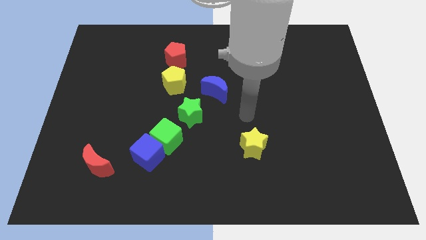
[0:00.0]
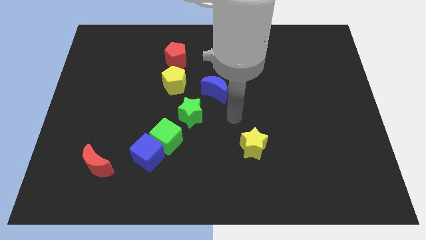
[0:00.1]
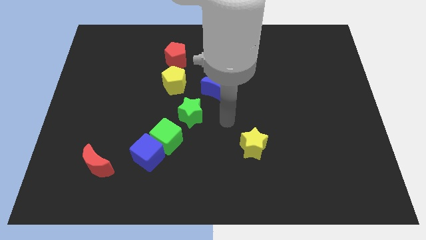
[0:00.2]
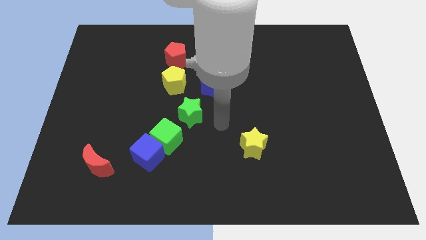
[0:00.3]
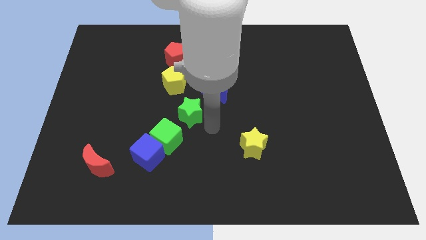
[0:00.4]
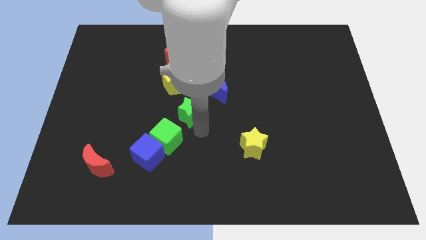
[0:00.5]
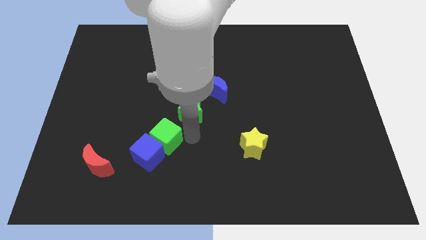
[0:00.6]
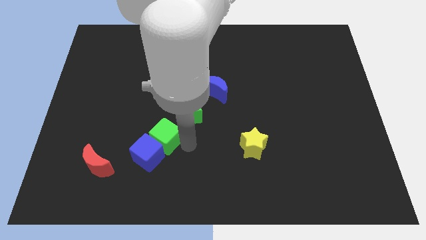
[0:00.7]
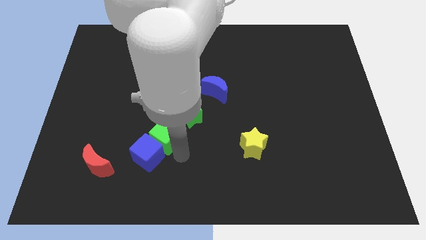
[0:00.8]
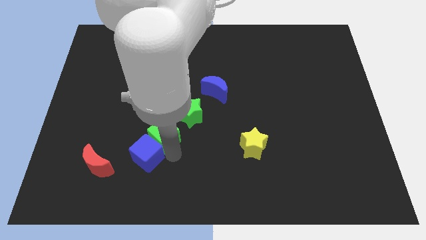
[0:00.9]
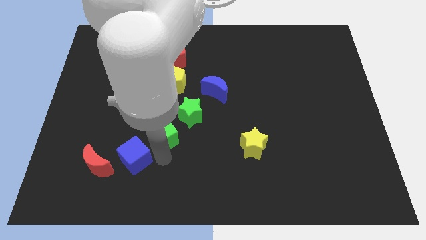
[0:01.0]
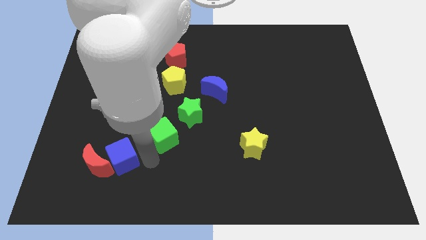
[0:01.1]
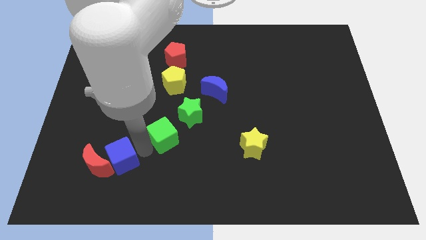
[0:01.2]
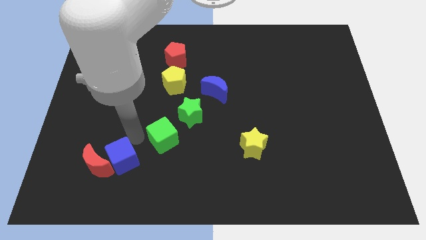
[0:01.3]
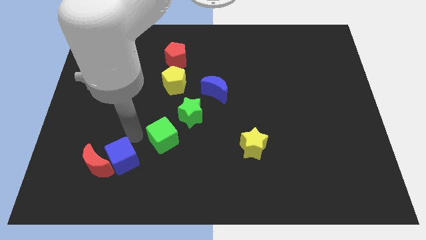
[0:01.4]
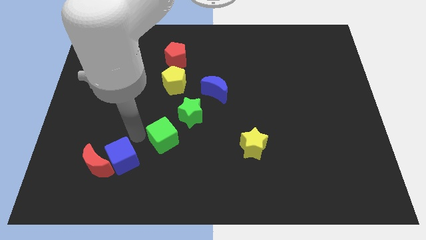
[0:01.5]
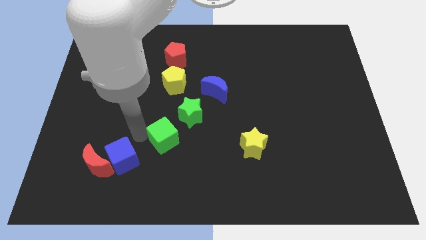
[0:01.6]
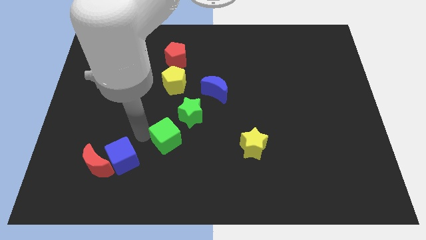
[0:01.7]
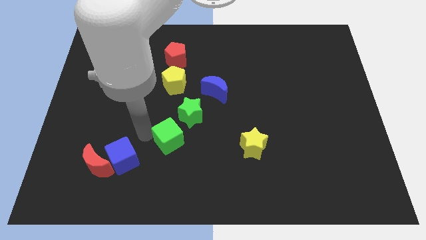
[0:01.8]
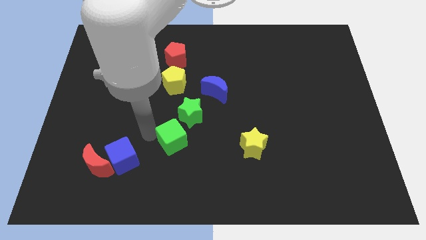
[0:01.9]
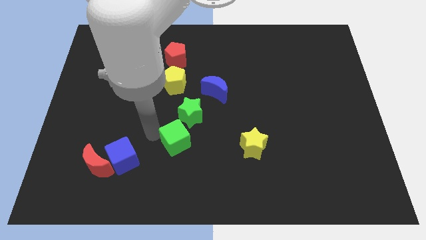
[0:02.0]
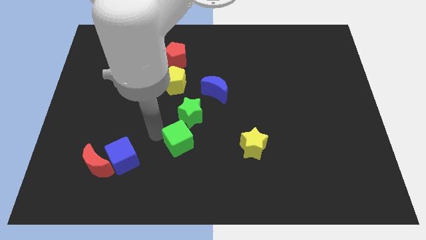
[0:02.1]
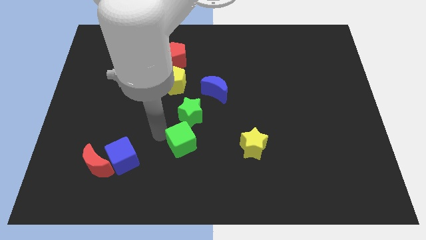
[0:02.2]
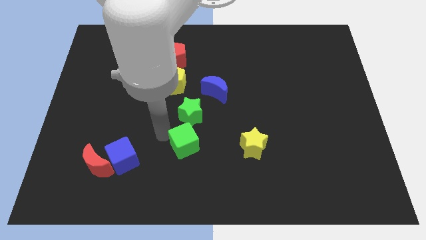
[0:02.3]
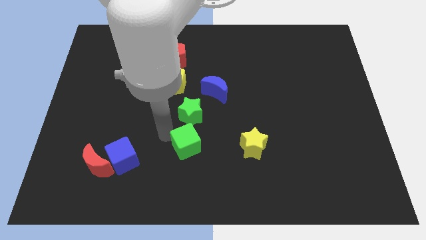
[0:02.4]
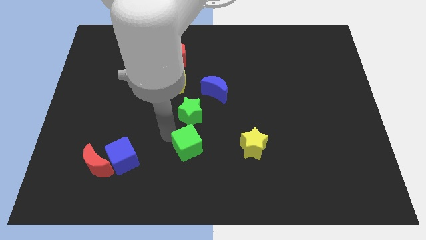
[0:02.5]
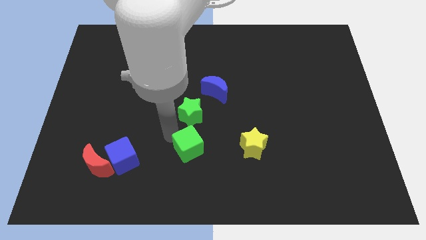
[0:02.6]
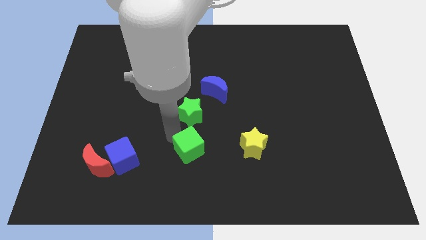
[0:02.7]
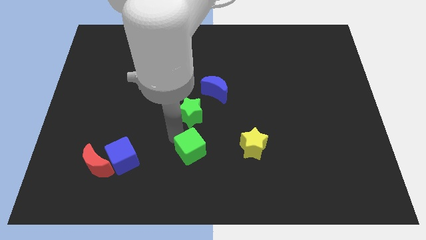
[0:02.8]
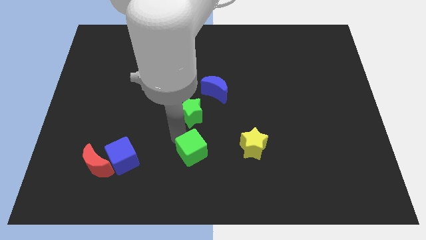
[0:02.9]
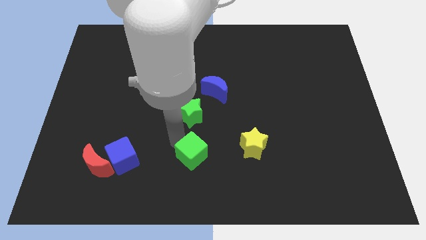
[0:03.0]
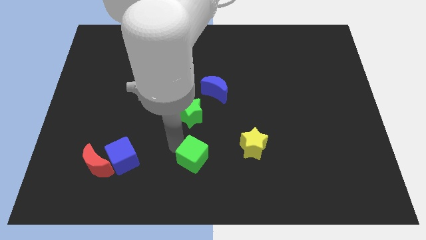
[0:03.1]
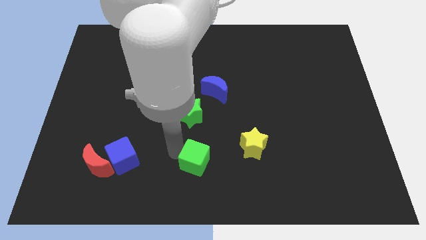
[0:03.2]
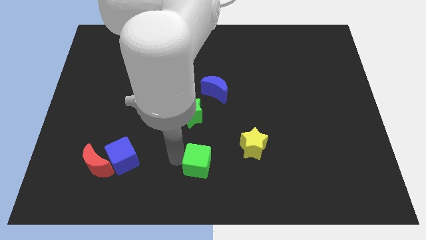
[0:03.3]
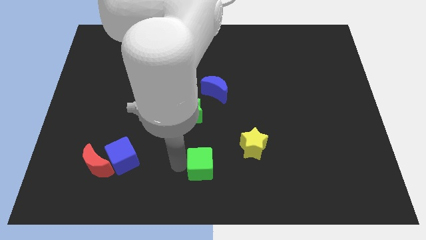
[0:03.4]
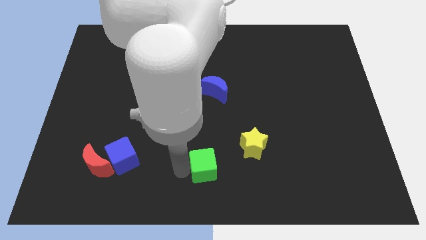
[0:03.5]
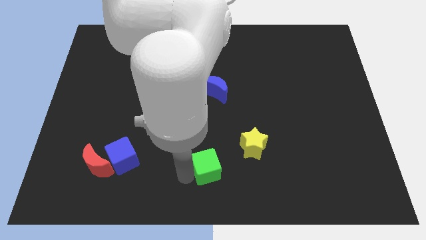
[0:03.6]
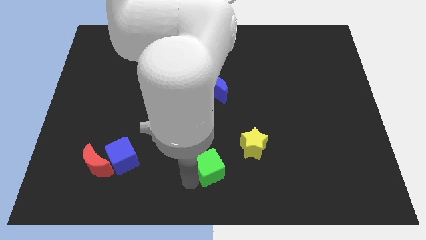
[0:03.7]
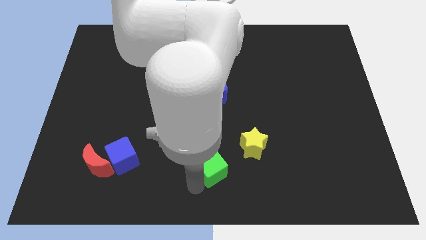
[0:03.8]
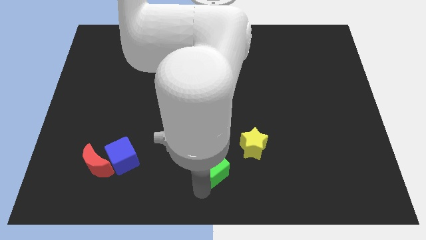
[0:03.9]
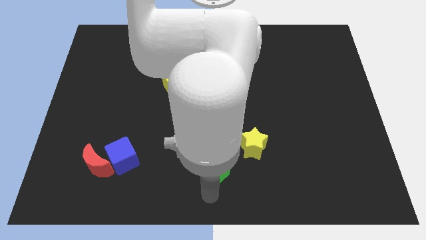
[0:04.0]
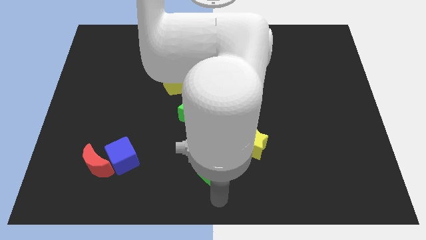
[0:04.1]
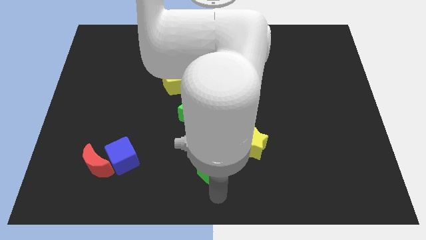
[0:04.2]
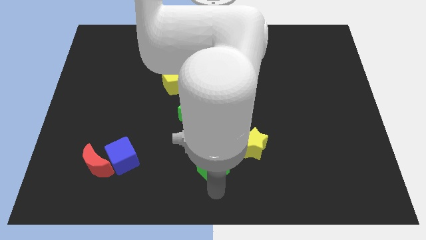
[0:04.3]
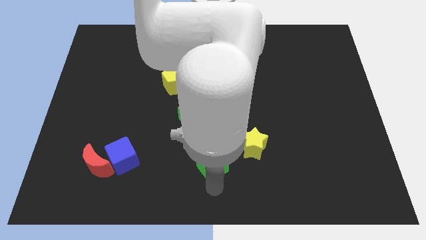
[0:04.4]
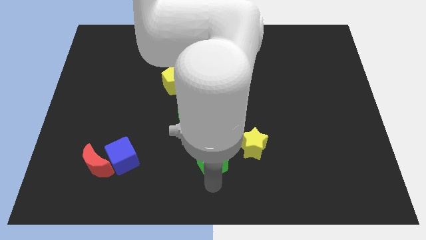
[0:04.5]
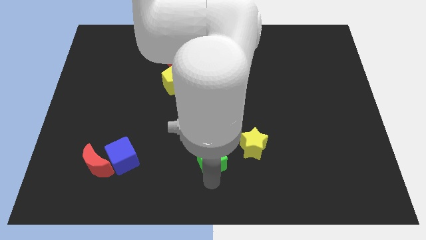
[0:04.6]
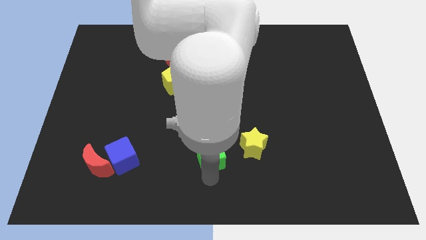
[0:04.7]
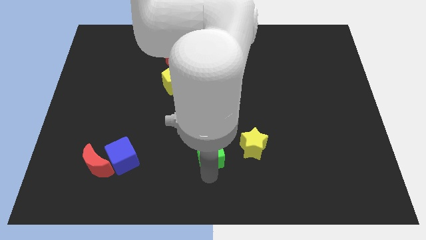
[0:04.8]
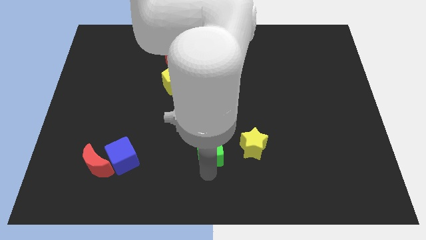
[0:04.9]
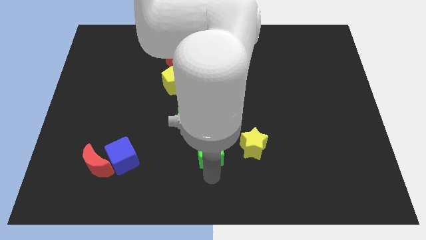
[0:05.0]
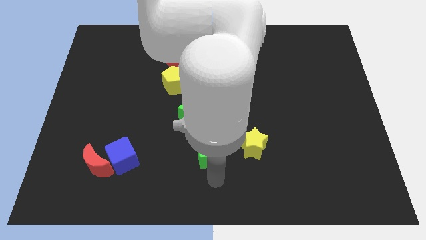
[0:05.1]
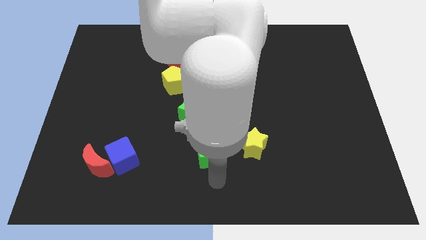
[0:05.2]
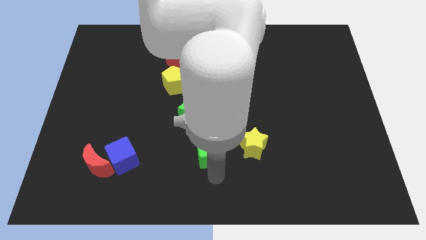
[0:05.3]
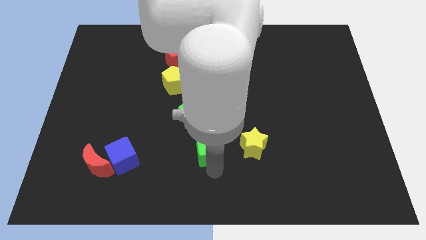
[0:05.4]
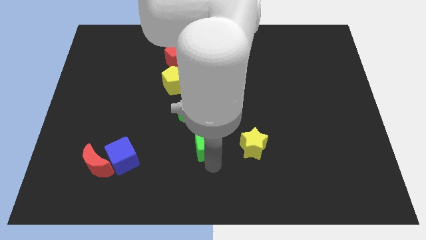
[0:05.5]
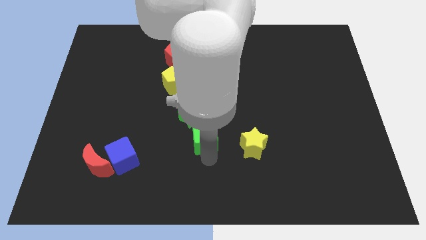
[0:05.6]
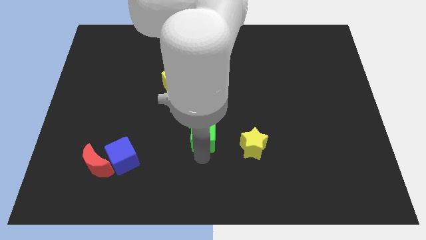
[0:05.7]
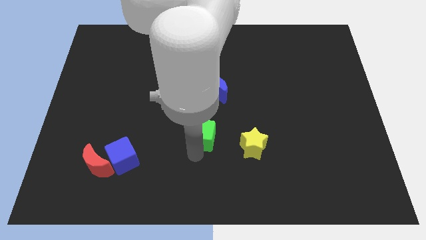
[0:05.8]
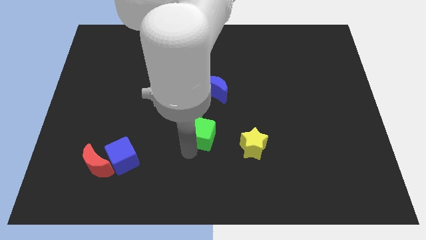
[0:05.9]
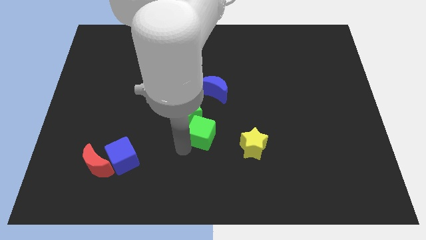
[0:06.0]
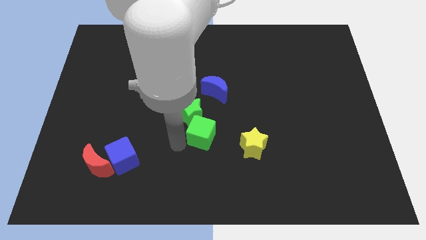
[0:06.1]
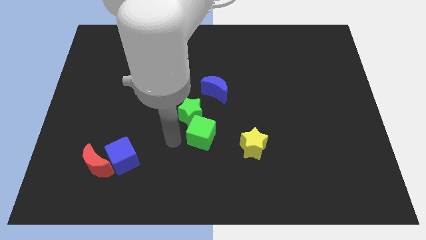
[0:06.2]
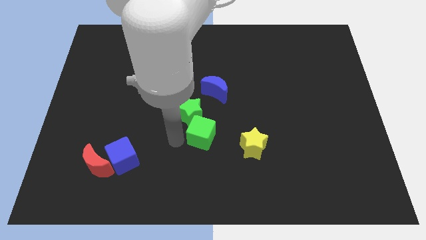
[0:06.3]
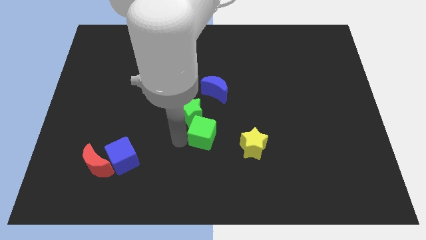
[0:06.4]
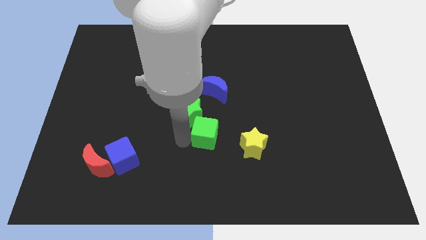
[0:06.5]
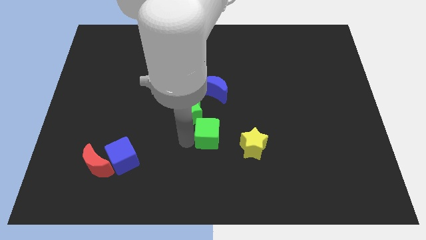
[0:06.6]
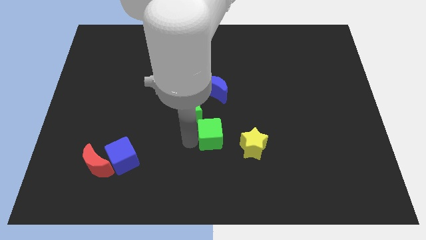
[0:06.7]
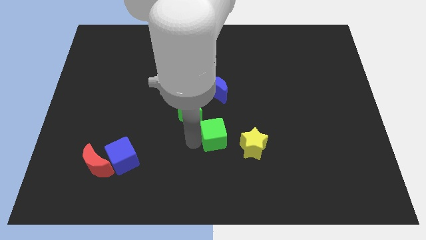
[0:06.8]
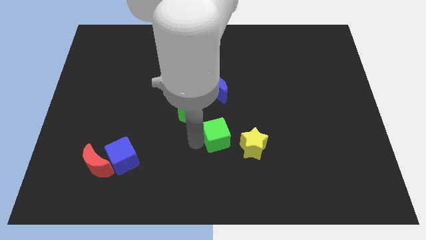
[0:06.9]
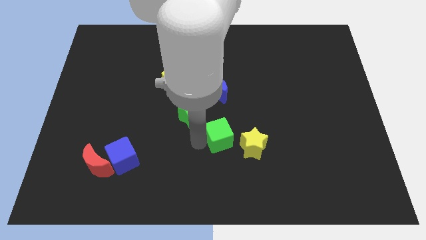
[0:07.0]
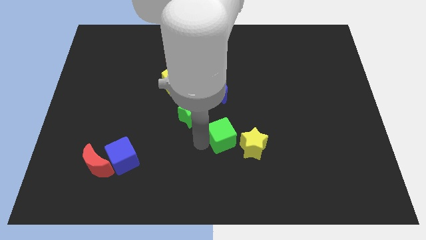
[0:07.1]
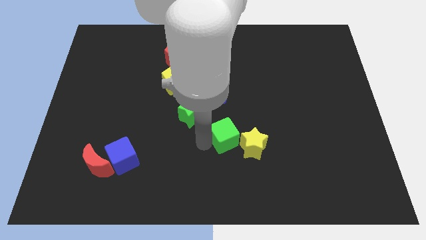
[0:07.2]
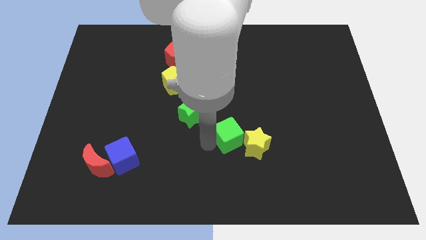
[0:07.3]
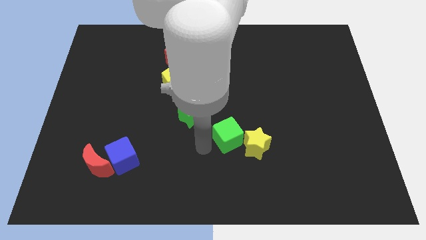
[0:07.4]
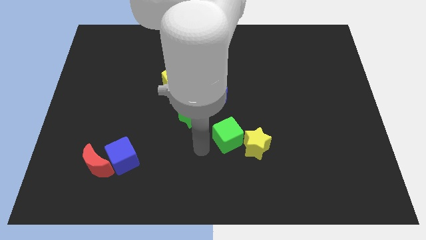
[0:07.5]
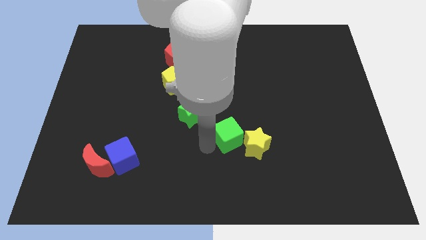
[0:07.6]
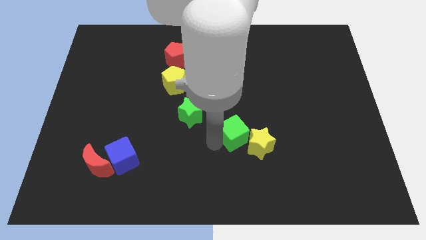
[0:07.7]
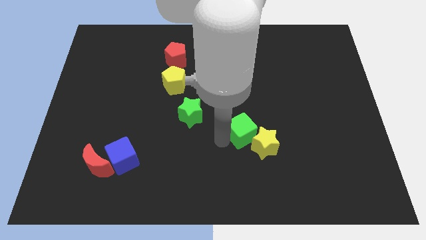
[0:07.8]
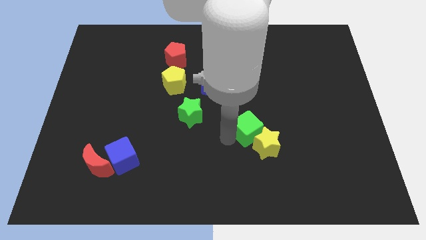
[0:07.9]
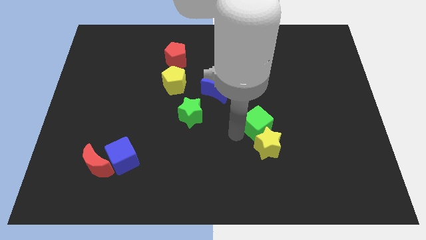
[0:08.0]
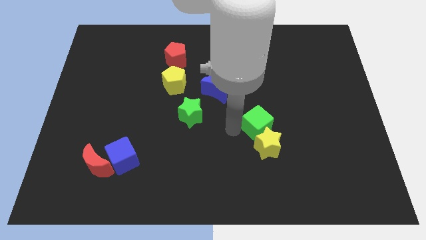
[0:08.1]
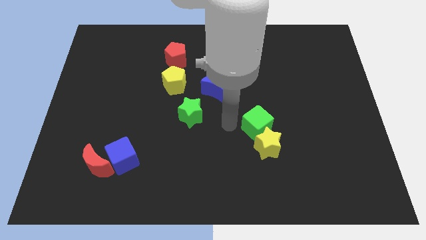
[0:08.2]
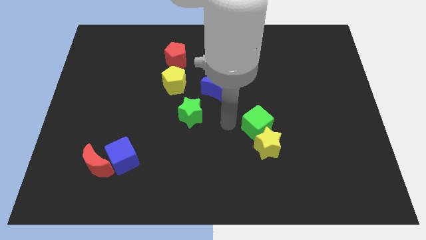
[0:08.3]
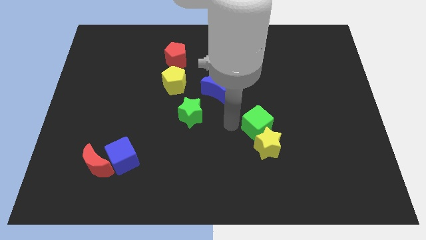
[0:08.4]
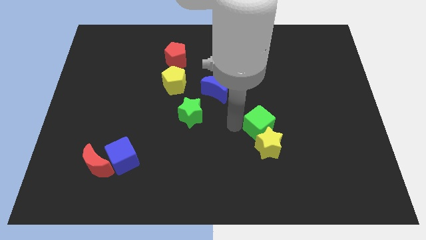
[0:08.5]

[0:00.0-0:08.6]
move the green cube right
